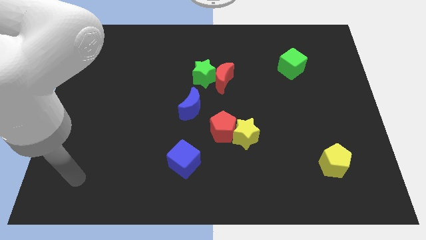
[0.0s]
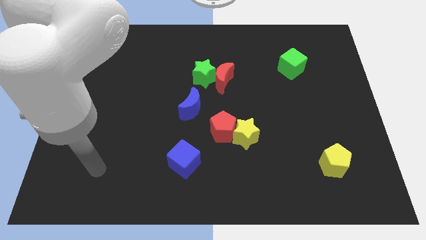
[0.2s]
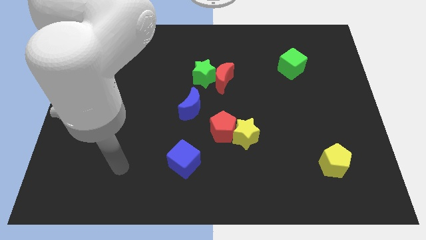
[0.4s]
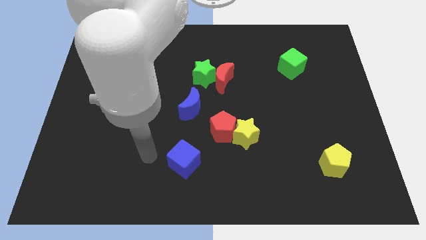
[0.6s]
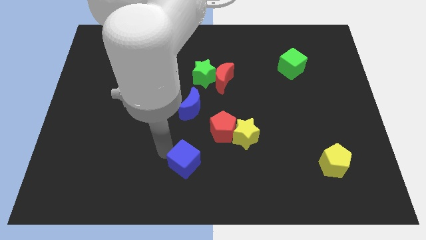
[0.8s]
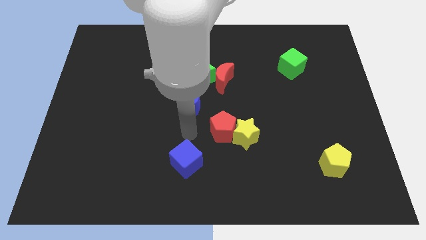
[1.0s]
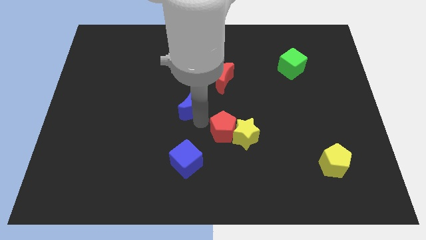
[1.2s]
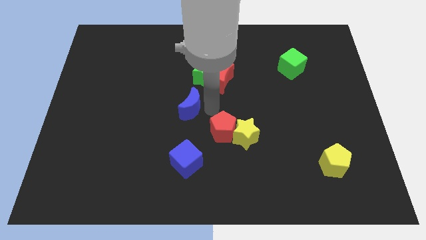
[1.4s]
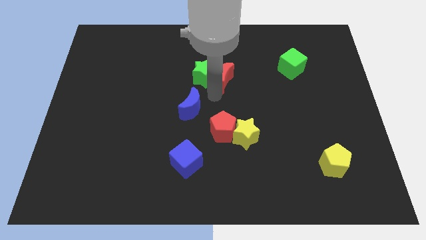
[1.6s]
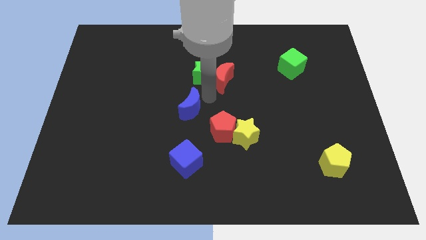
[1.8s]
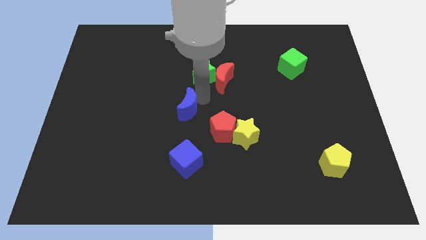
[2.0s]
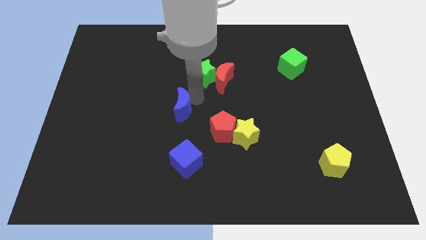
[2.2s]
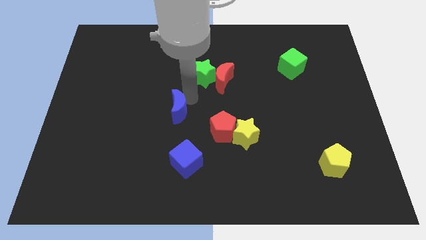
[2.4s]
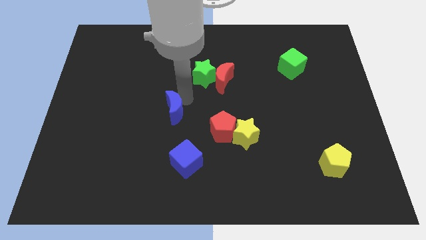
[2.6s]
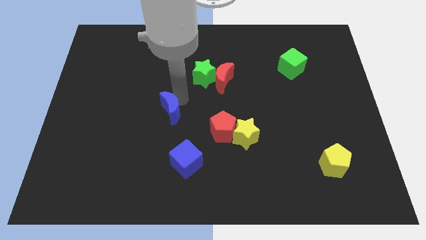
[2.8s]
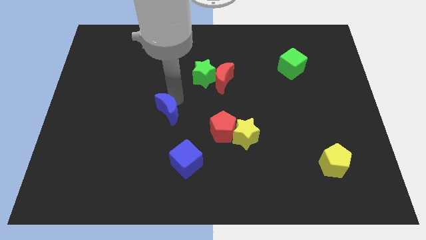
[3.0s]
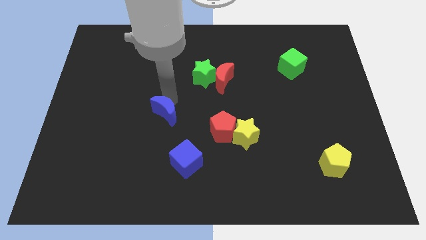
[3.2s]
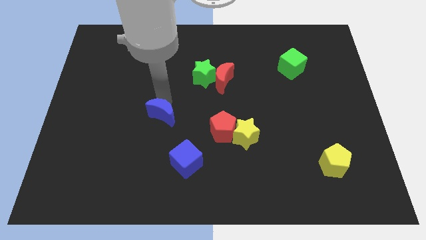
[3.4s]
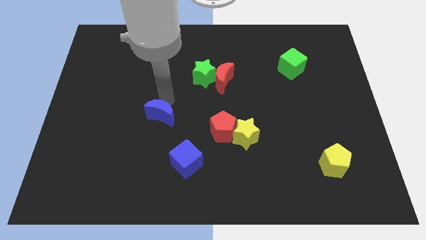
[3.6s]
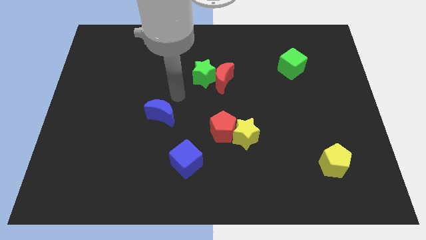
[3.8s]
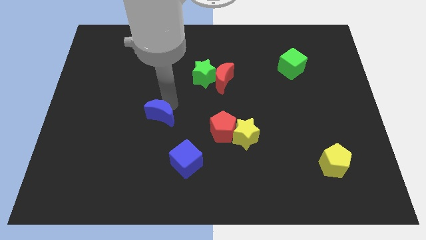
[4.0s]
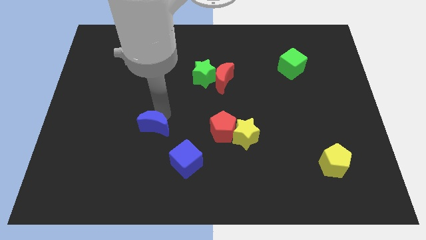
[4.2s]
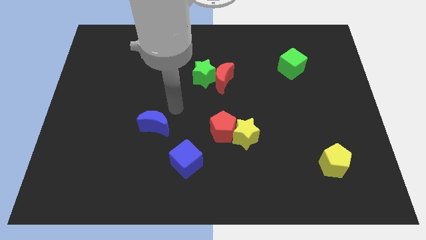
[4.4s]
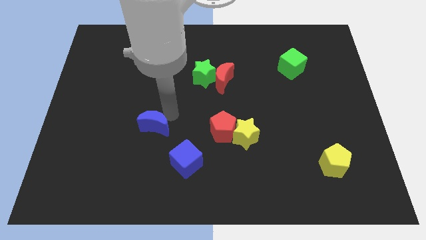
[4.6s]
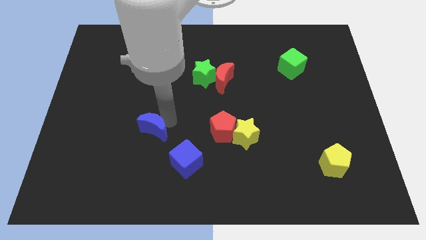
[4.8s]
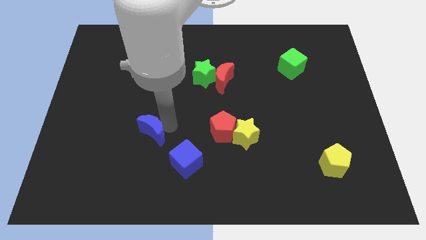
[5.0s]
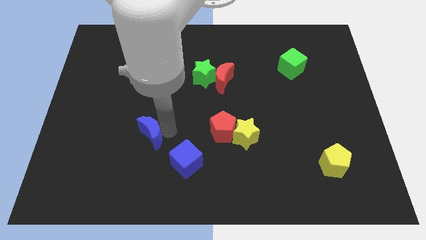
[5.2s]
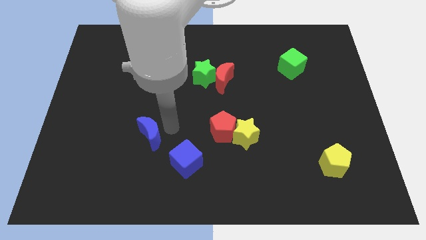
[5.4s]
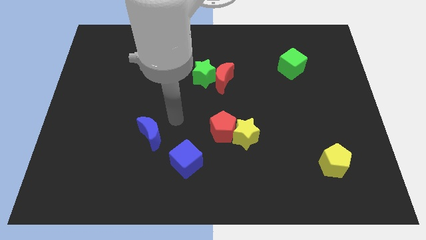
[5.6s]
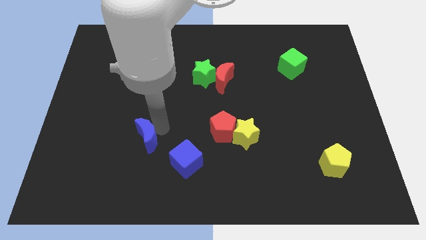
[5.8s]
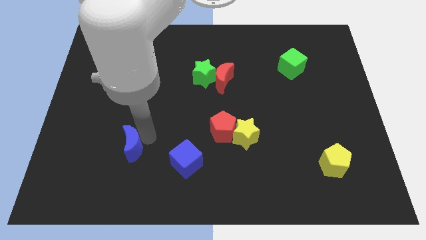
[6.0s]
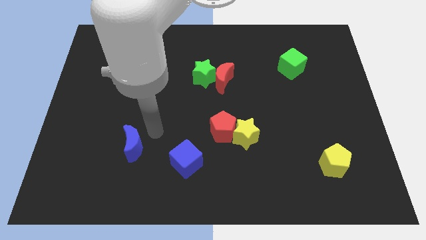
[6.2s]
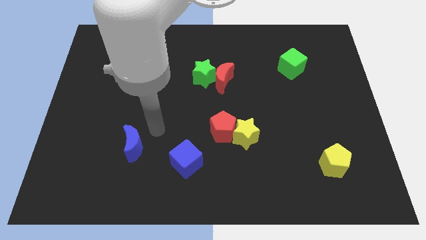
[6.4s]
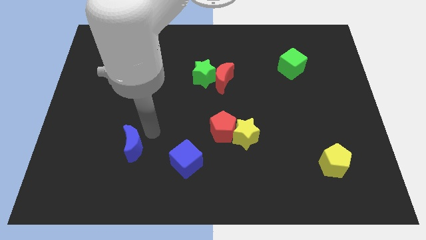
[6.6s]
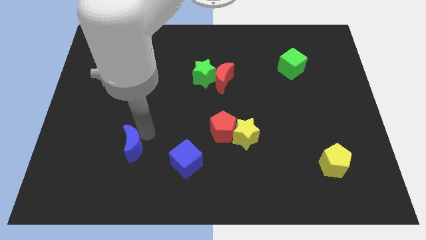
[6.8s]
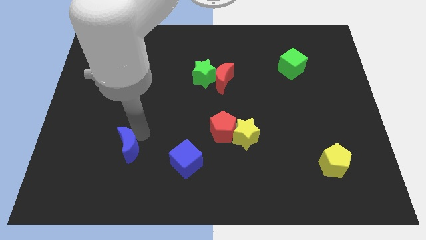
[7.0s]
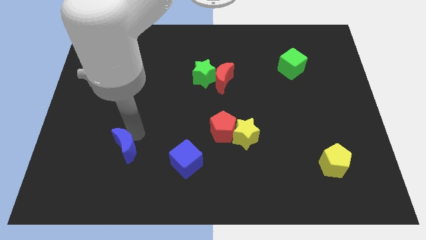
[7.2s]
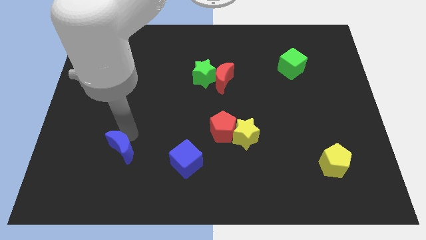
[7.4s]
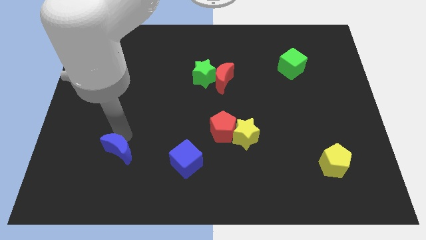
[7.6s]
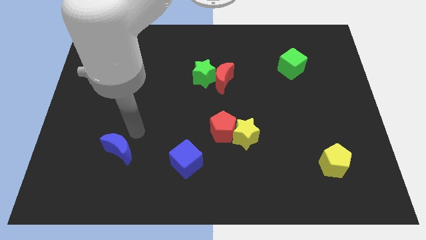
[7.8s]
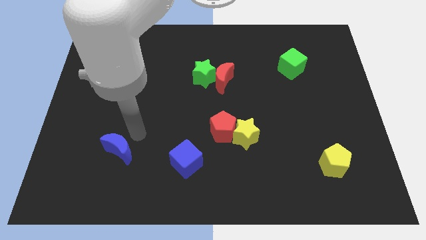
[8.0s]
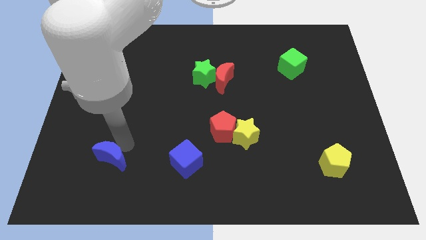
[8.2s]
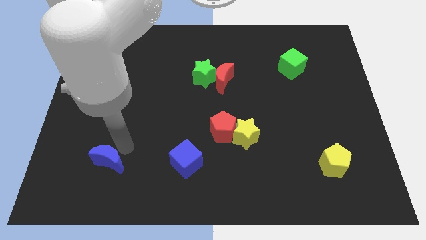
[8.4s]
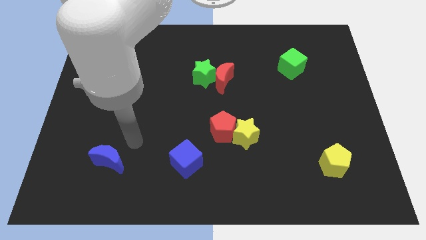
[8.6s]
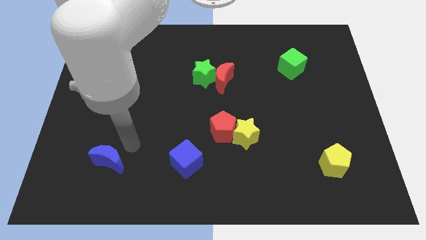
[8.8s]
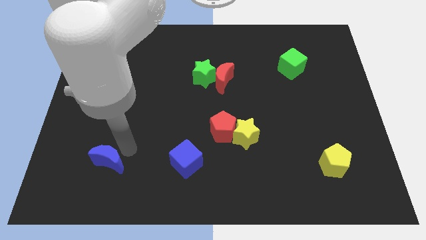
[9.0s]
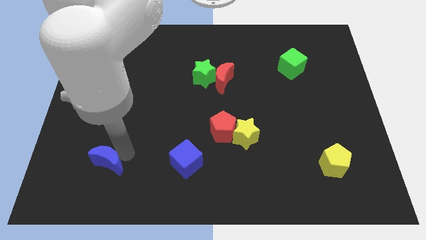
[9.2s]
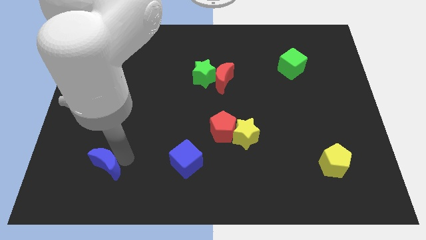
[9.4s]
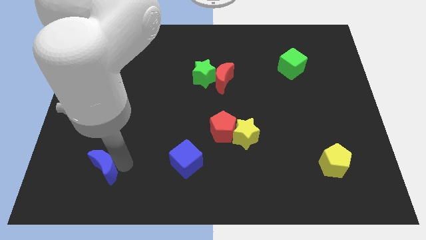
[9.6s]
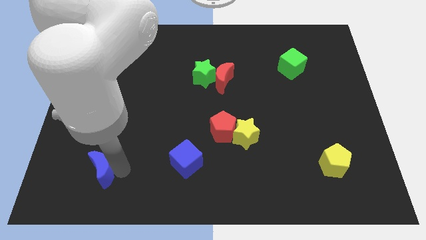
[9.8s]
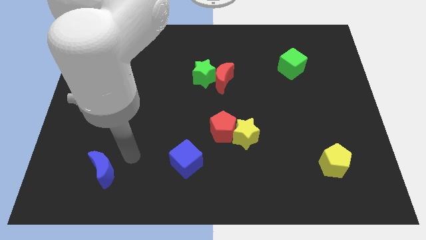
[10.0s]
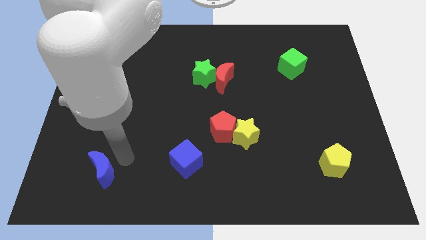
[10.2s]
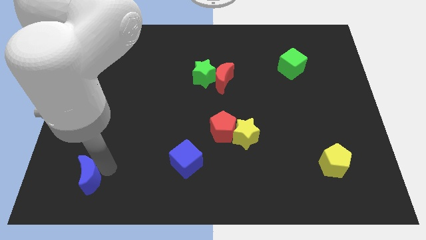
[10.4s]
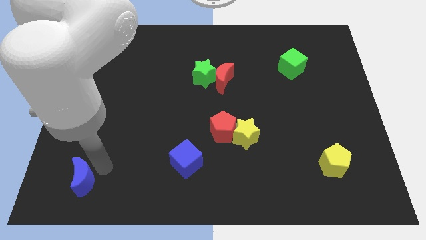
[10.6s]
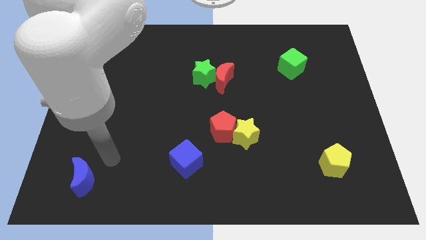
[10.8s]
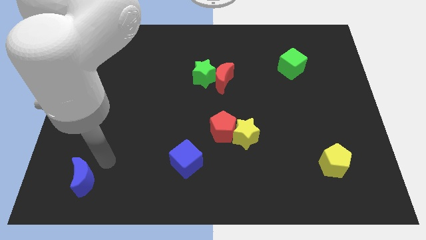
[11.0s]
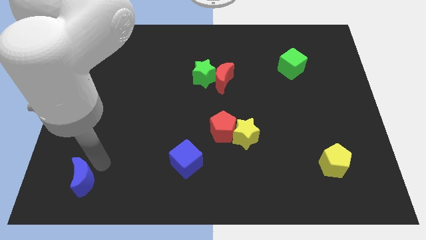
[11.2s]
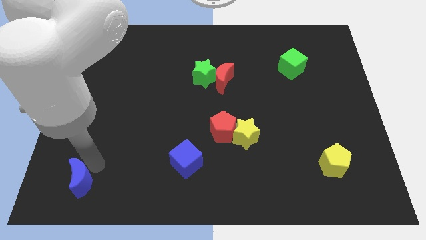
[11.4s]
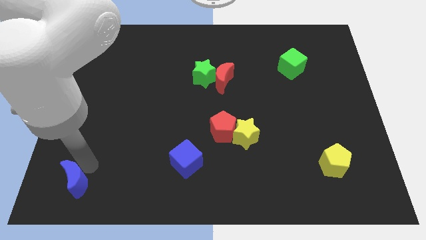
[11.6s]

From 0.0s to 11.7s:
put the blue moon to the bottom left corner

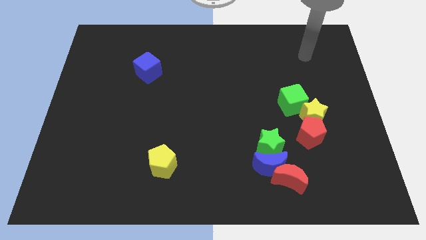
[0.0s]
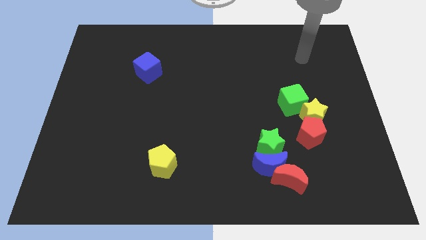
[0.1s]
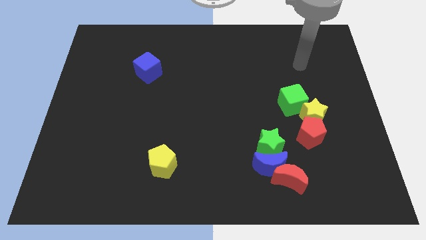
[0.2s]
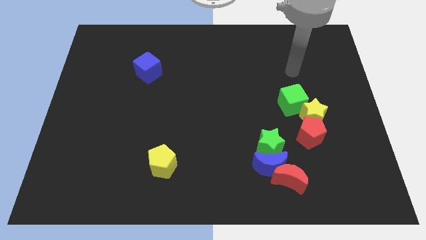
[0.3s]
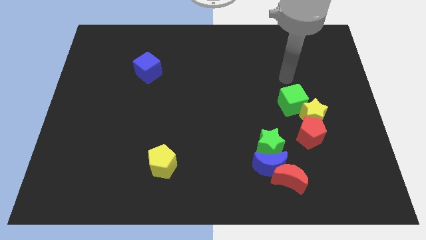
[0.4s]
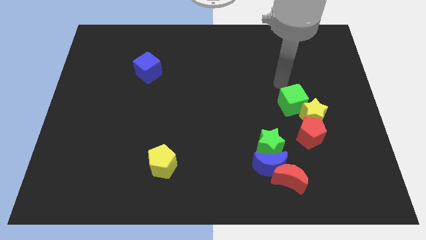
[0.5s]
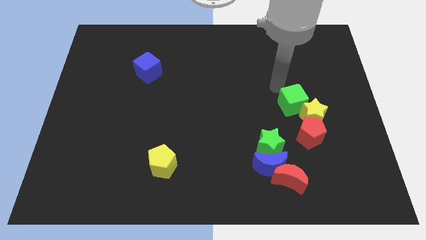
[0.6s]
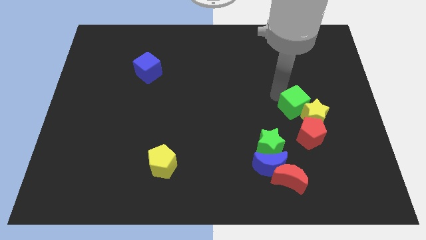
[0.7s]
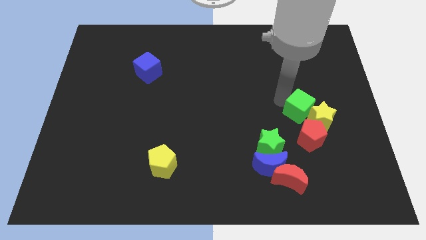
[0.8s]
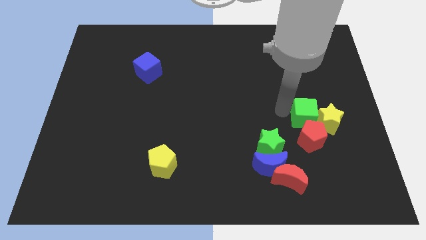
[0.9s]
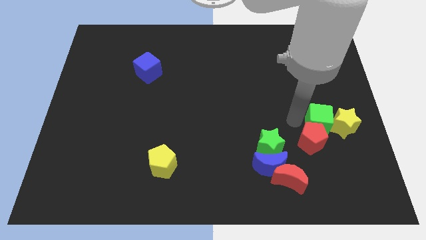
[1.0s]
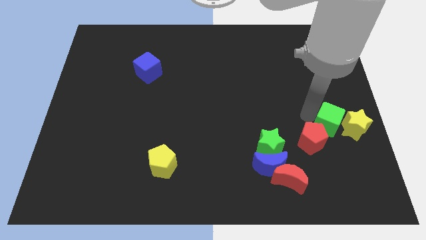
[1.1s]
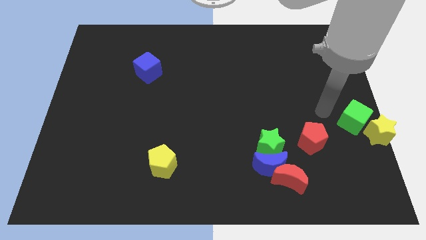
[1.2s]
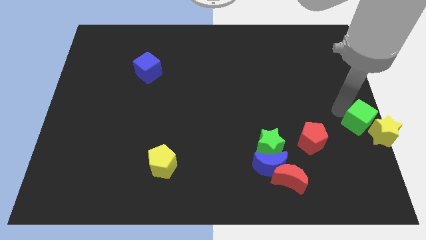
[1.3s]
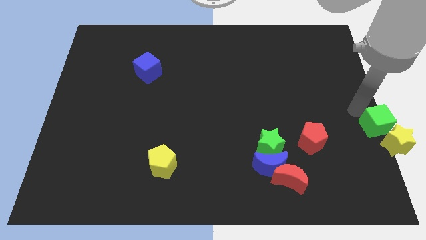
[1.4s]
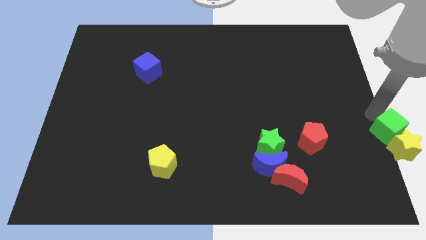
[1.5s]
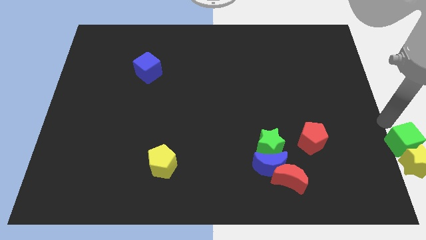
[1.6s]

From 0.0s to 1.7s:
move the yellow star to the bottom right corner
